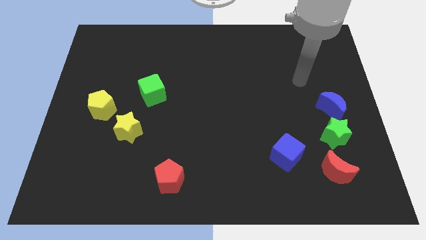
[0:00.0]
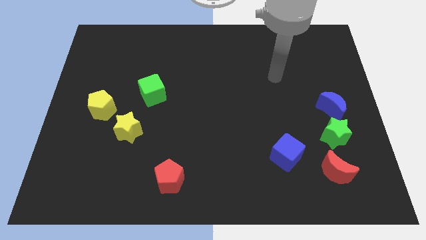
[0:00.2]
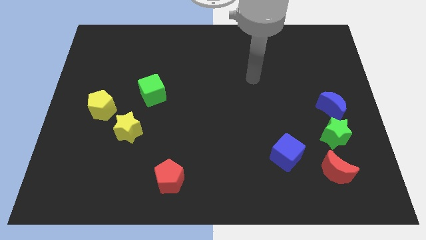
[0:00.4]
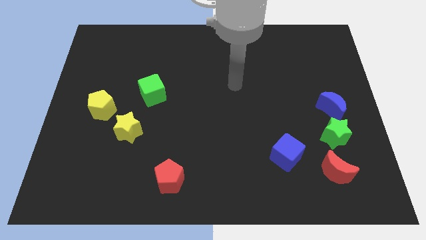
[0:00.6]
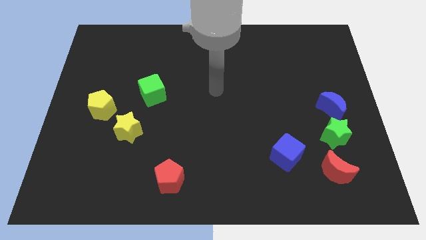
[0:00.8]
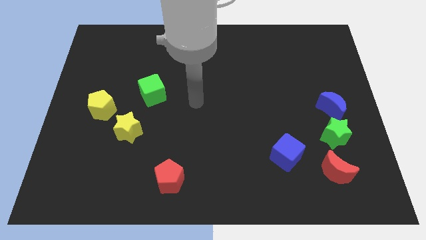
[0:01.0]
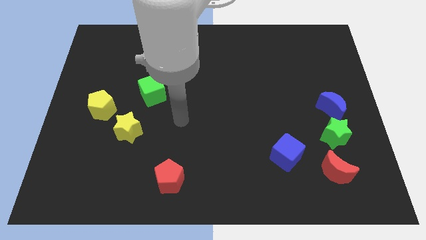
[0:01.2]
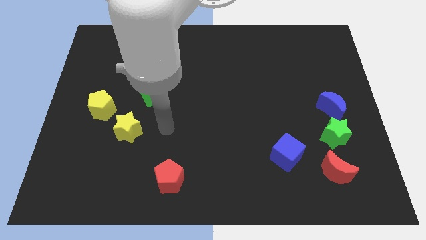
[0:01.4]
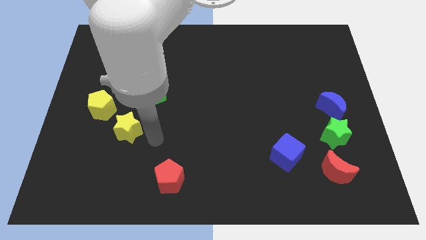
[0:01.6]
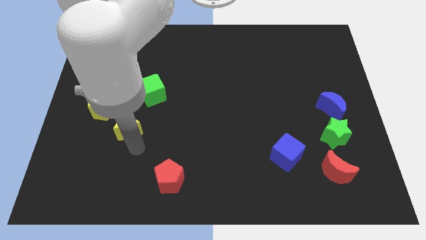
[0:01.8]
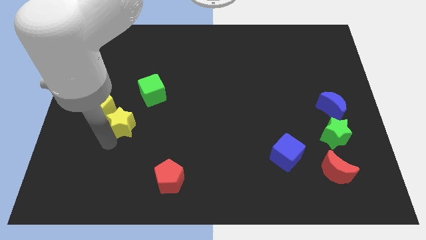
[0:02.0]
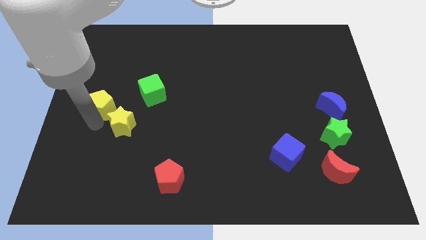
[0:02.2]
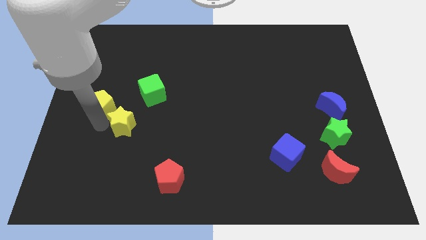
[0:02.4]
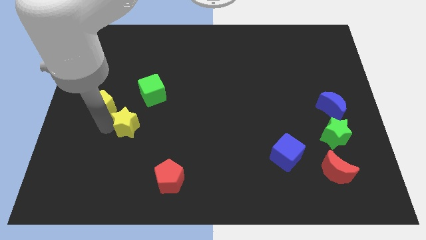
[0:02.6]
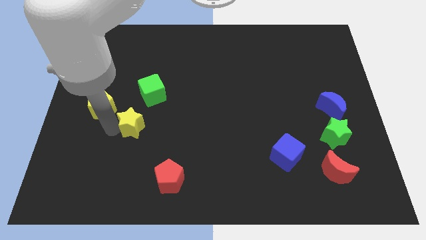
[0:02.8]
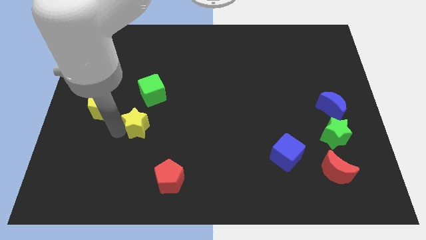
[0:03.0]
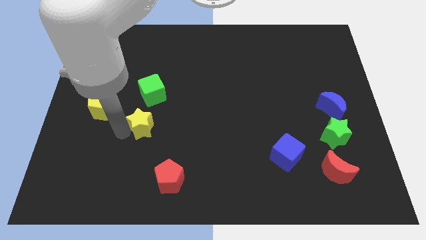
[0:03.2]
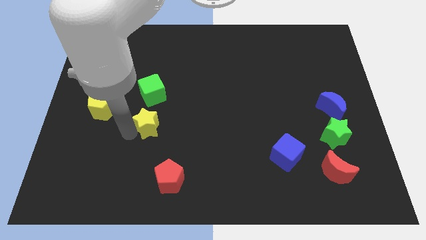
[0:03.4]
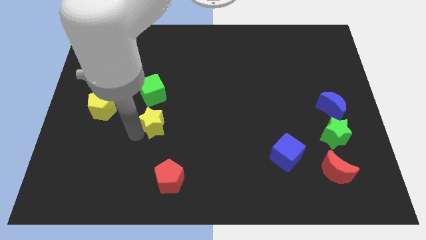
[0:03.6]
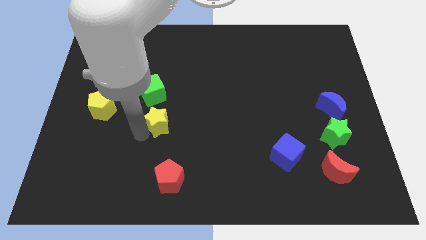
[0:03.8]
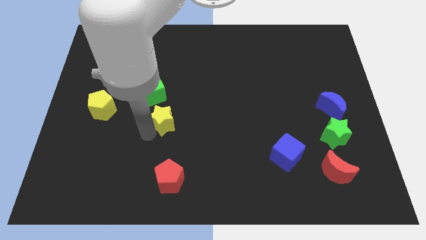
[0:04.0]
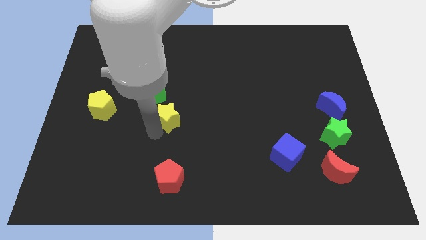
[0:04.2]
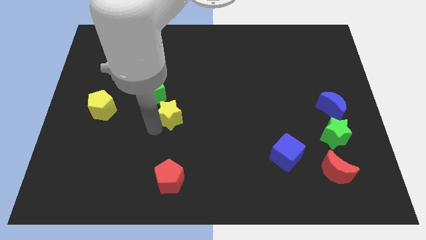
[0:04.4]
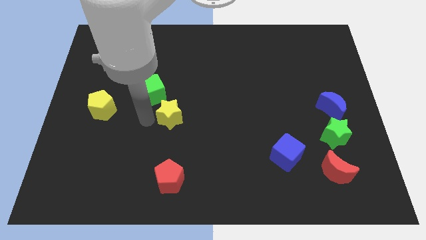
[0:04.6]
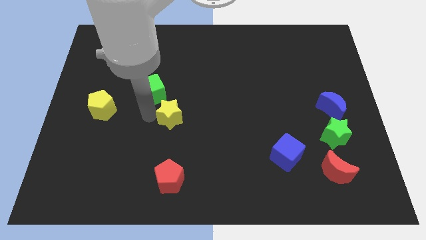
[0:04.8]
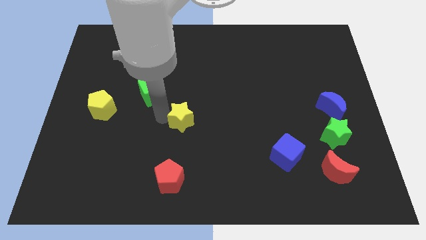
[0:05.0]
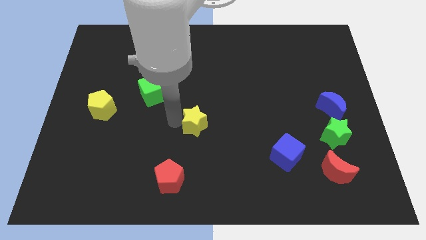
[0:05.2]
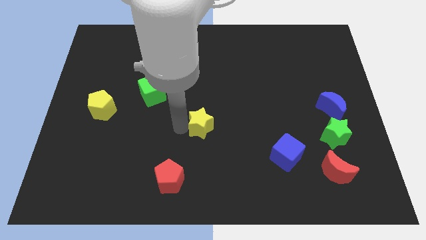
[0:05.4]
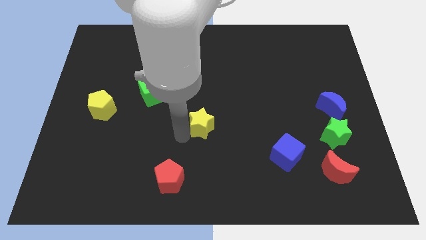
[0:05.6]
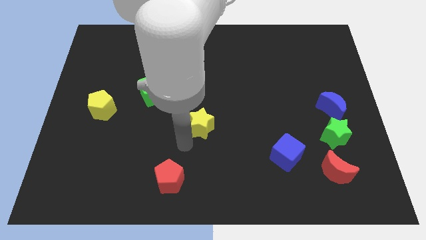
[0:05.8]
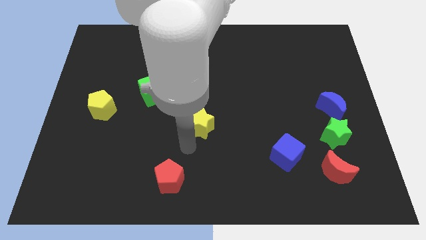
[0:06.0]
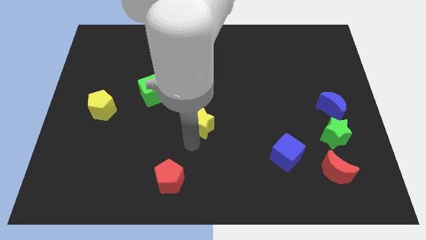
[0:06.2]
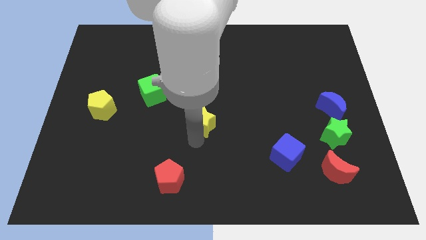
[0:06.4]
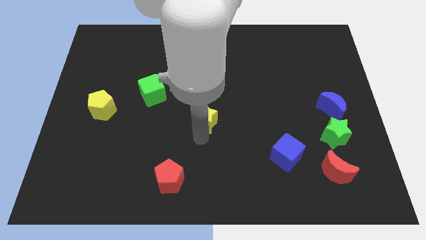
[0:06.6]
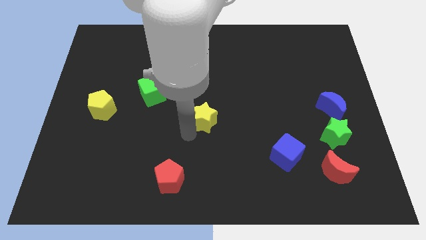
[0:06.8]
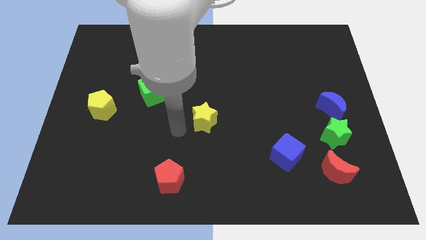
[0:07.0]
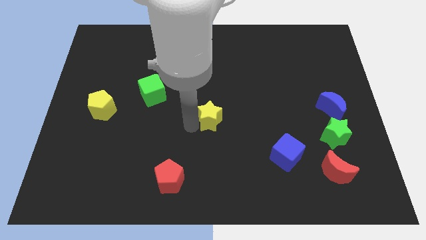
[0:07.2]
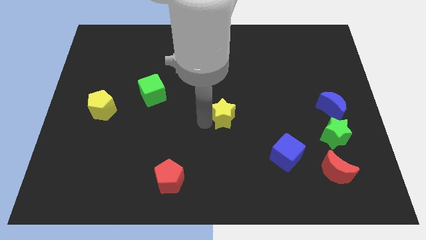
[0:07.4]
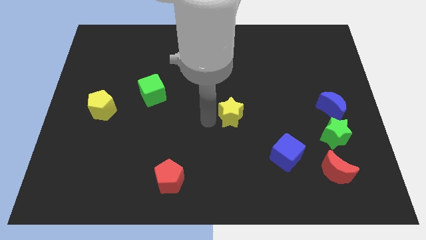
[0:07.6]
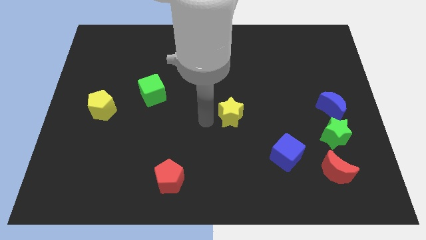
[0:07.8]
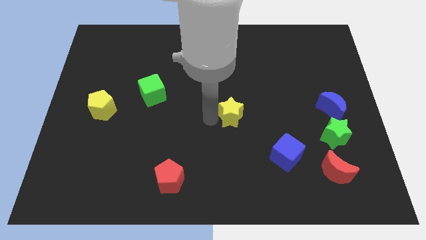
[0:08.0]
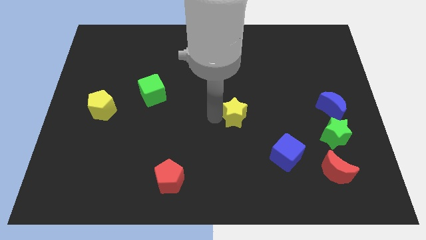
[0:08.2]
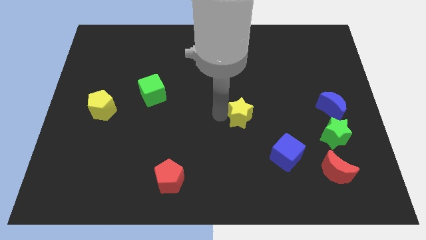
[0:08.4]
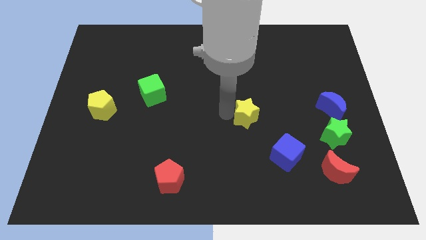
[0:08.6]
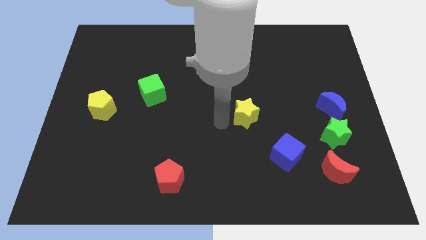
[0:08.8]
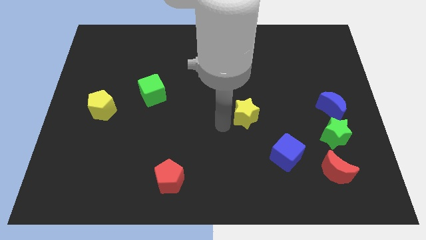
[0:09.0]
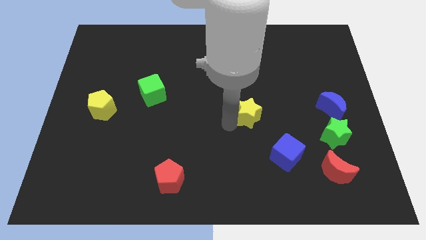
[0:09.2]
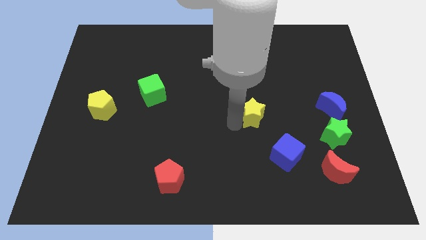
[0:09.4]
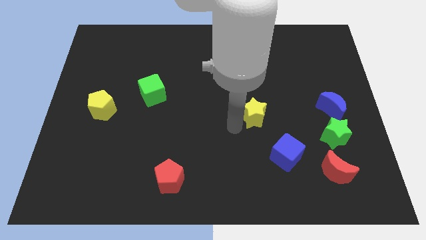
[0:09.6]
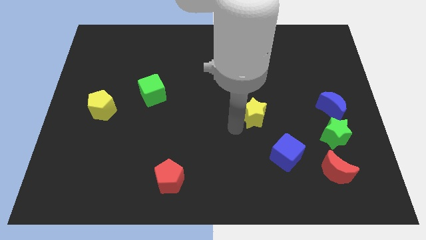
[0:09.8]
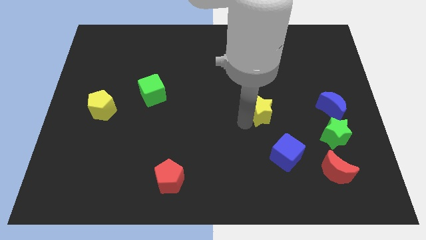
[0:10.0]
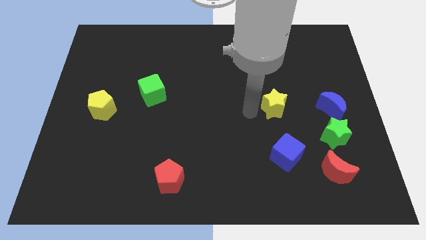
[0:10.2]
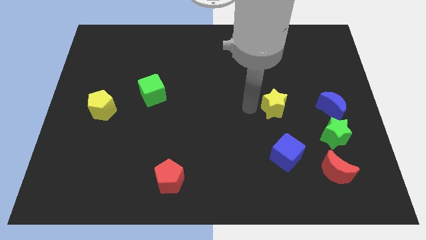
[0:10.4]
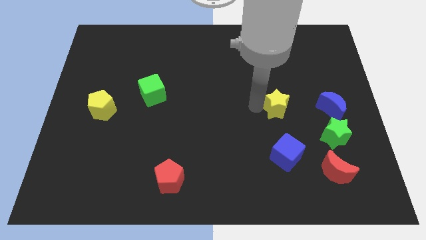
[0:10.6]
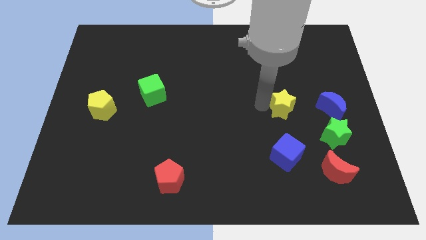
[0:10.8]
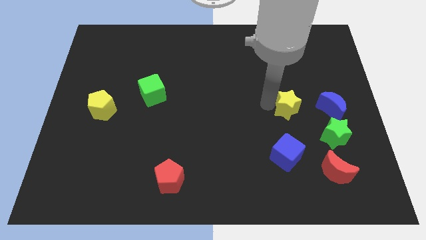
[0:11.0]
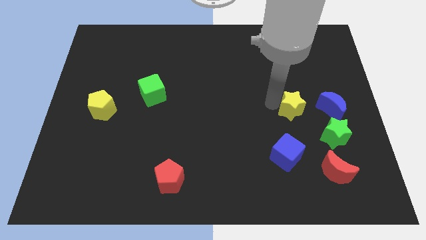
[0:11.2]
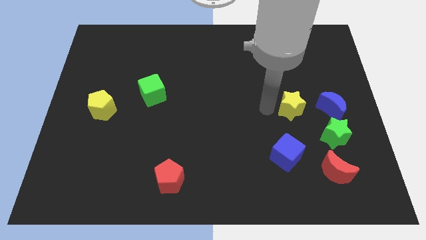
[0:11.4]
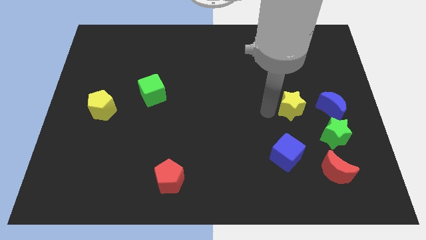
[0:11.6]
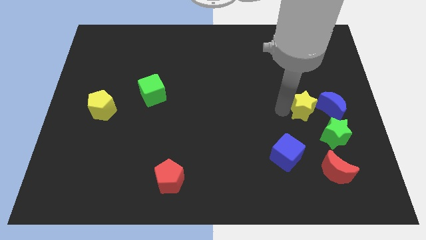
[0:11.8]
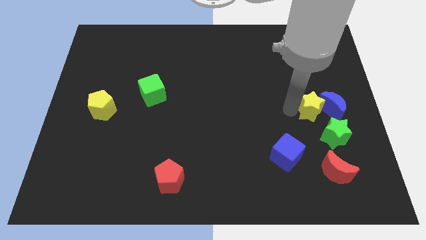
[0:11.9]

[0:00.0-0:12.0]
push the yellow star towards the blue moon

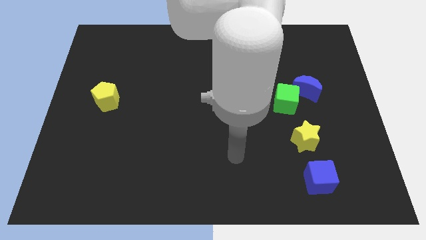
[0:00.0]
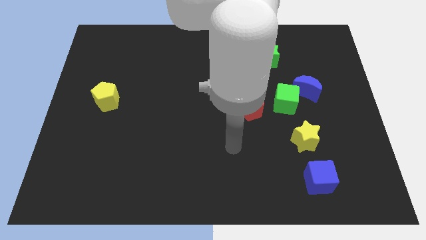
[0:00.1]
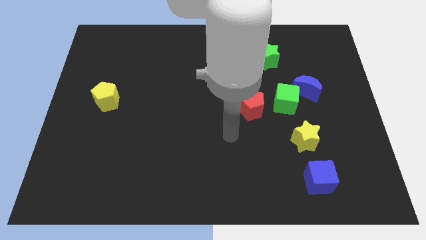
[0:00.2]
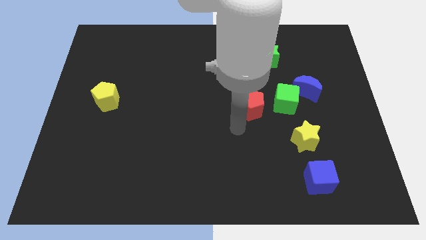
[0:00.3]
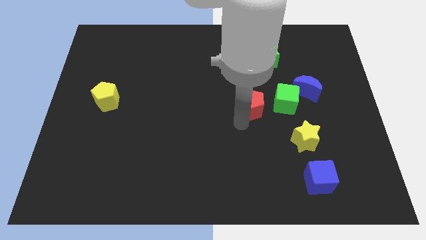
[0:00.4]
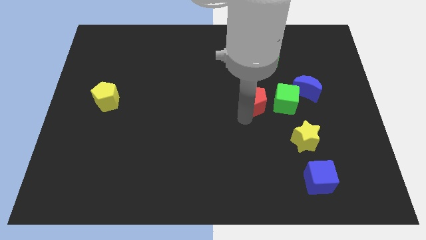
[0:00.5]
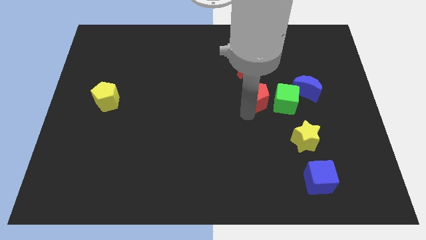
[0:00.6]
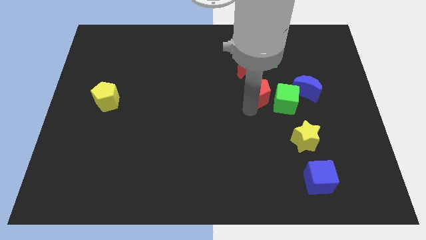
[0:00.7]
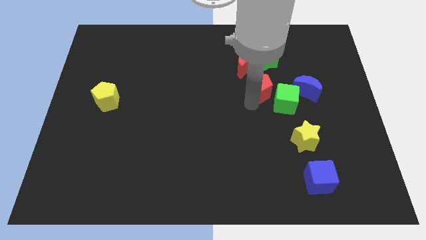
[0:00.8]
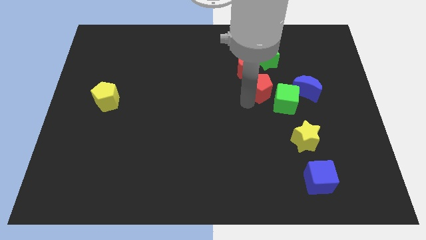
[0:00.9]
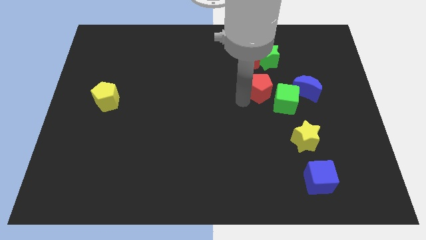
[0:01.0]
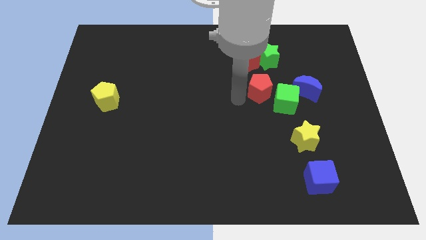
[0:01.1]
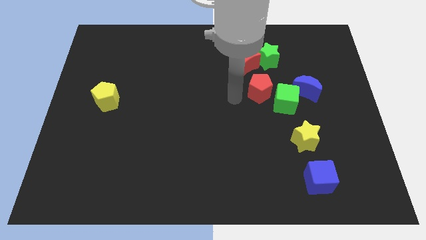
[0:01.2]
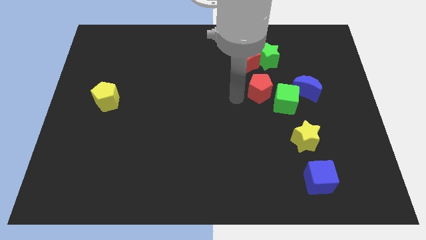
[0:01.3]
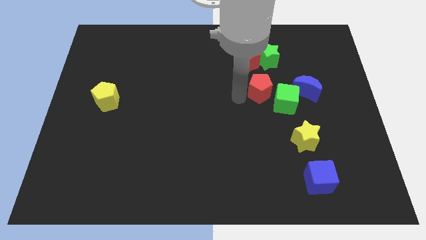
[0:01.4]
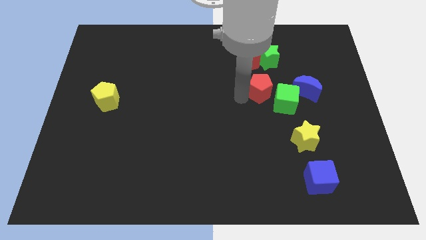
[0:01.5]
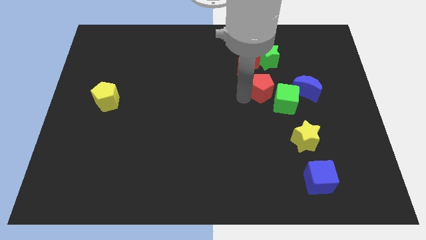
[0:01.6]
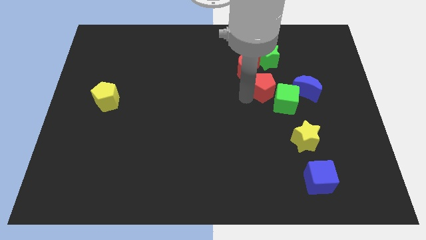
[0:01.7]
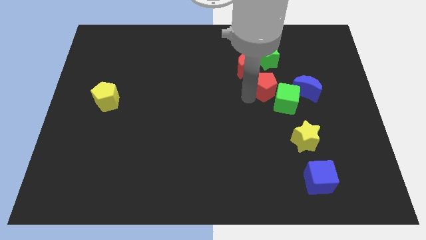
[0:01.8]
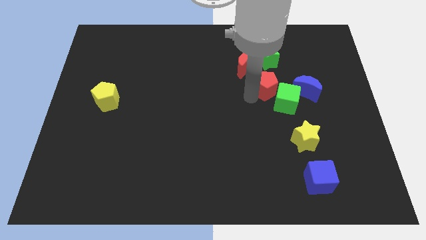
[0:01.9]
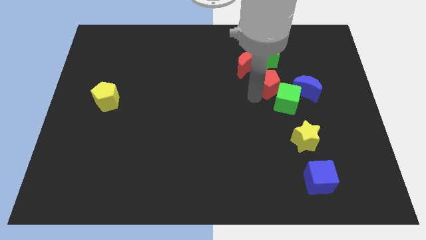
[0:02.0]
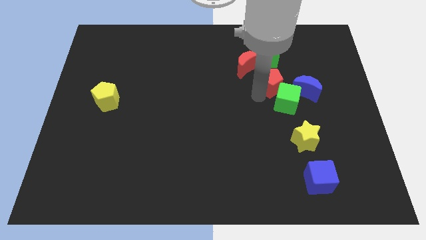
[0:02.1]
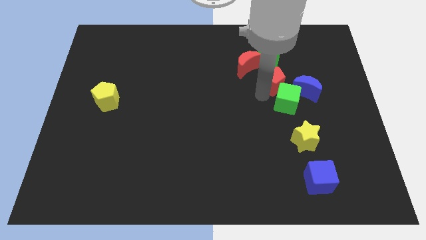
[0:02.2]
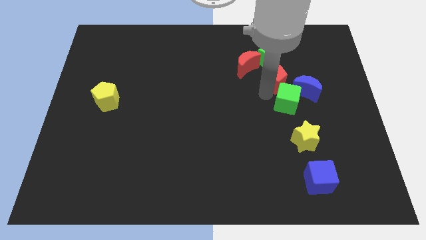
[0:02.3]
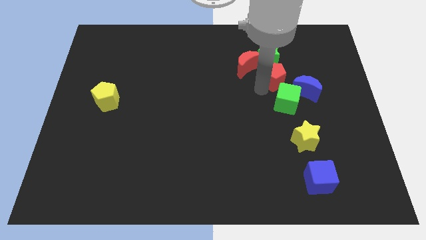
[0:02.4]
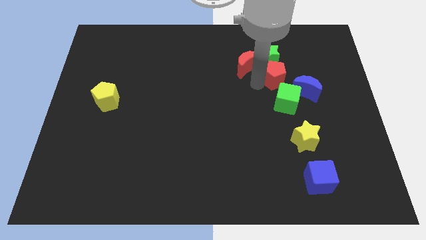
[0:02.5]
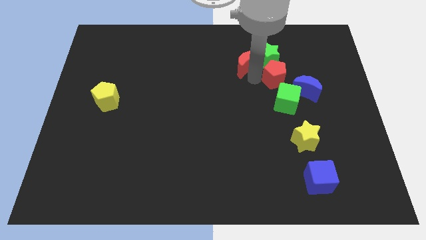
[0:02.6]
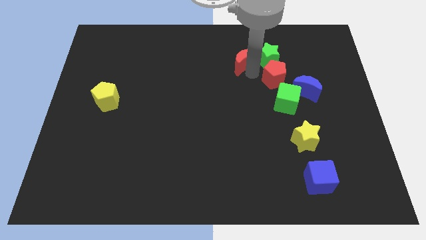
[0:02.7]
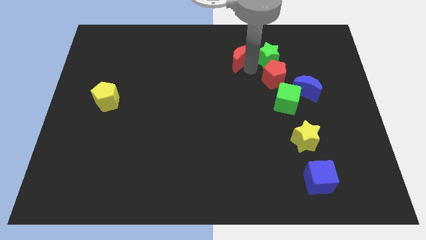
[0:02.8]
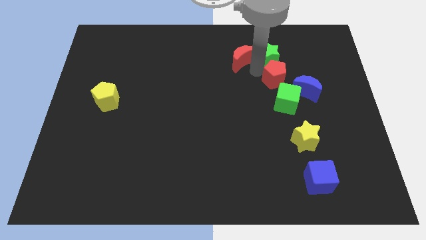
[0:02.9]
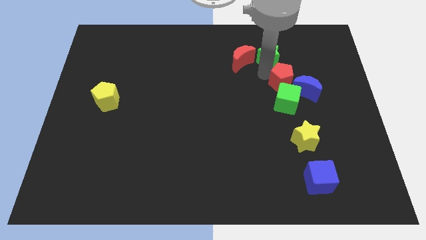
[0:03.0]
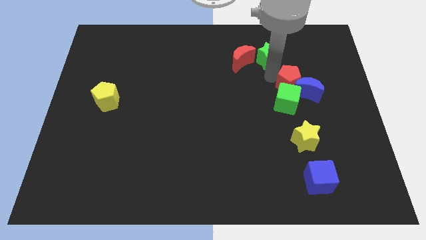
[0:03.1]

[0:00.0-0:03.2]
push the red pentagon towards the blue moon
